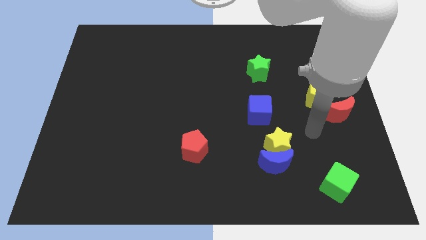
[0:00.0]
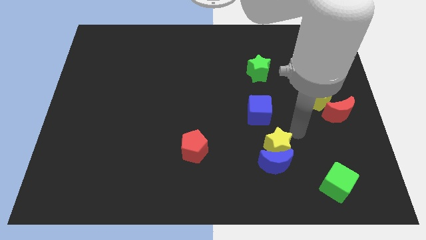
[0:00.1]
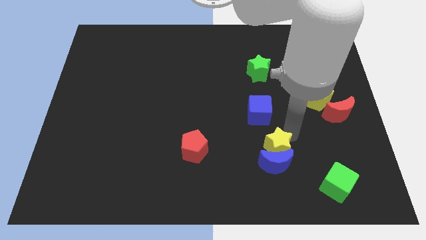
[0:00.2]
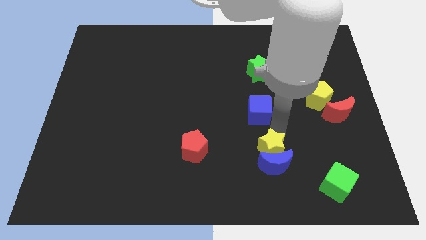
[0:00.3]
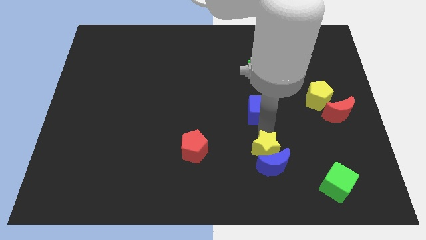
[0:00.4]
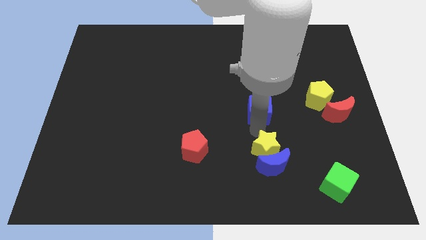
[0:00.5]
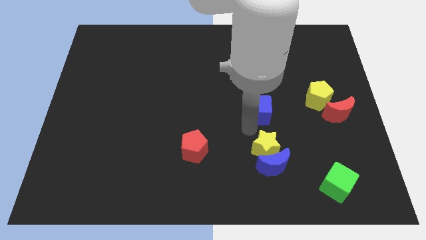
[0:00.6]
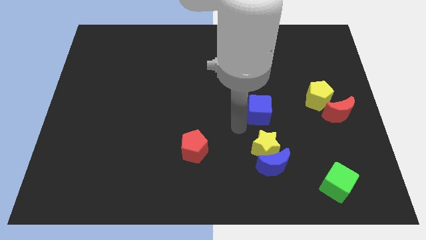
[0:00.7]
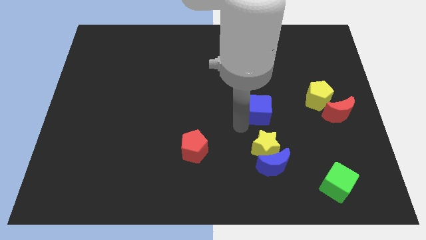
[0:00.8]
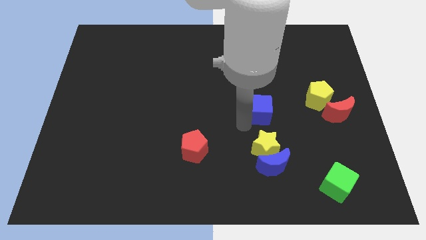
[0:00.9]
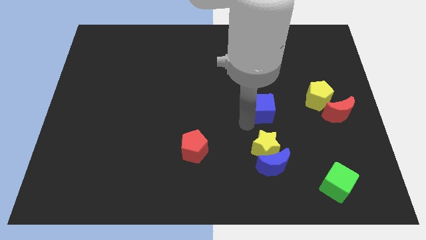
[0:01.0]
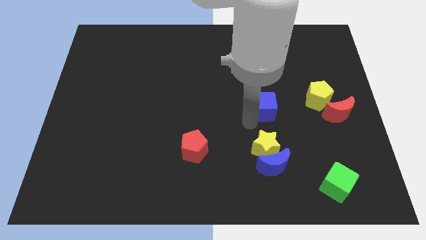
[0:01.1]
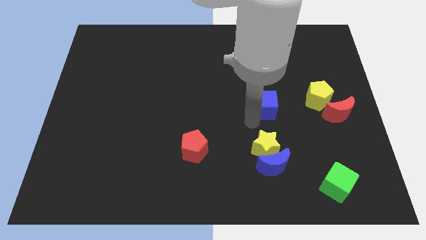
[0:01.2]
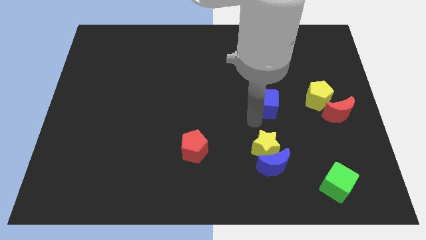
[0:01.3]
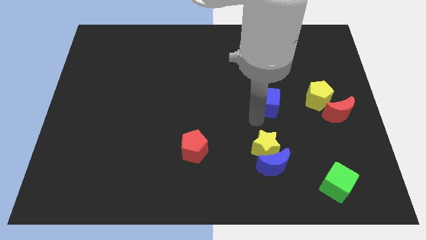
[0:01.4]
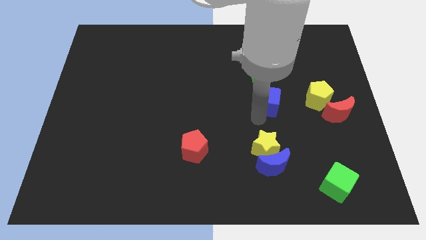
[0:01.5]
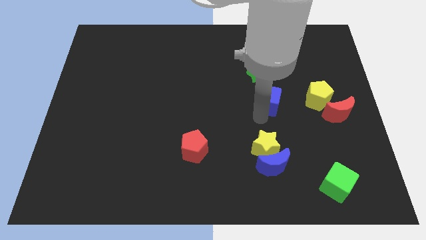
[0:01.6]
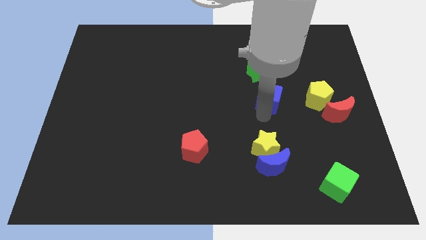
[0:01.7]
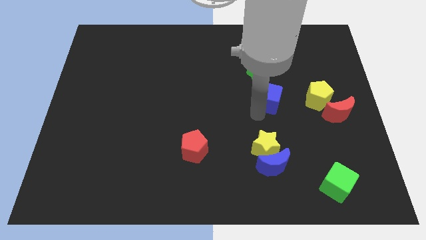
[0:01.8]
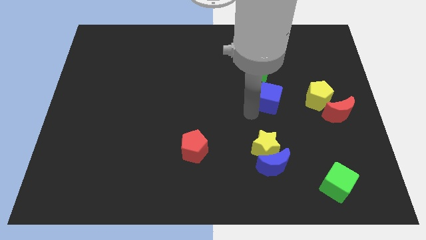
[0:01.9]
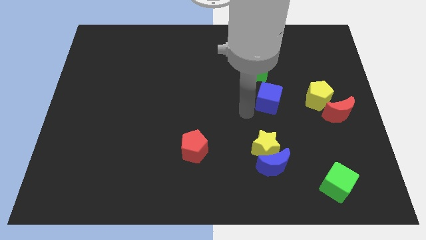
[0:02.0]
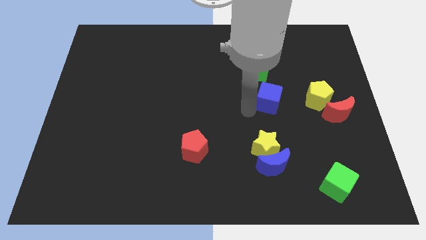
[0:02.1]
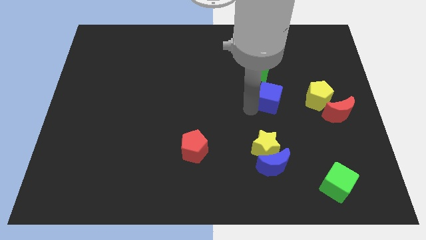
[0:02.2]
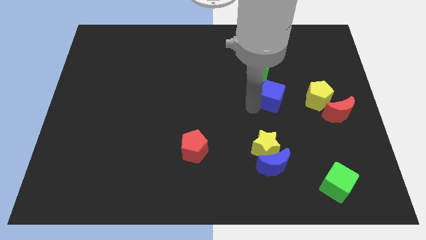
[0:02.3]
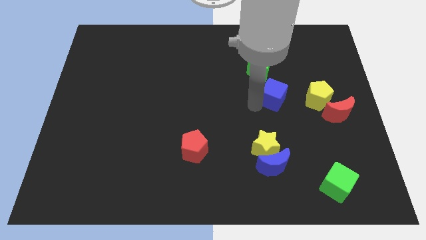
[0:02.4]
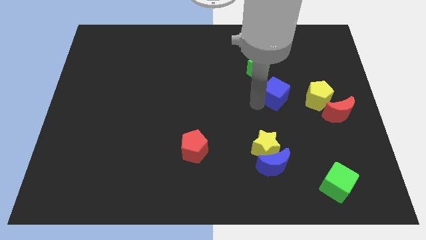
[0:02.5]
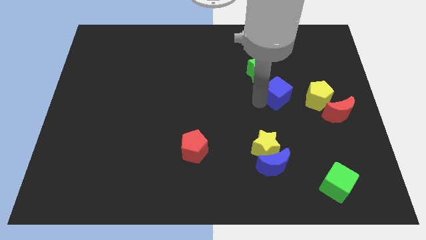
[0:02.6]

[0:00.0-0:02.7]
push the blue cube upwards and right diagonally a little

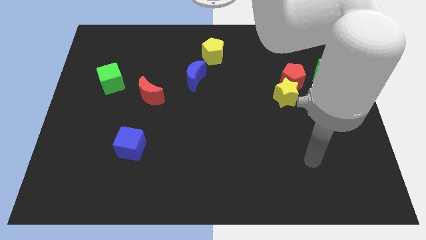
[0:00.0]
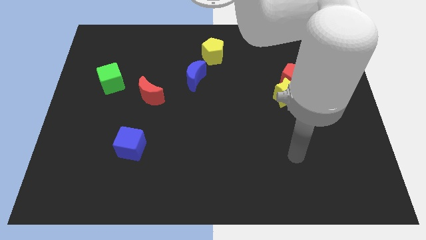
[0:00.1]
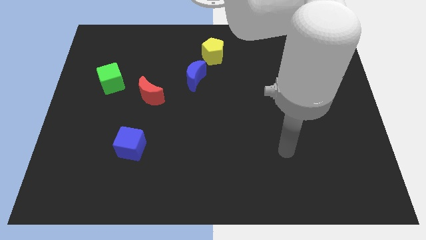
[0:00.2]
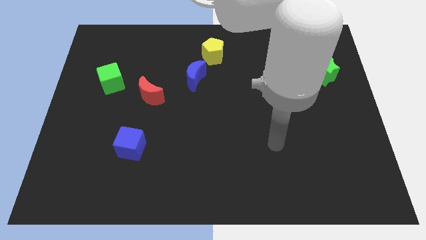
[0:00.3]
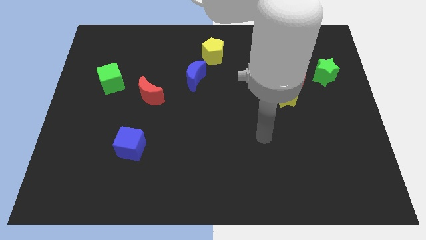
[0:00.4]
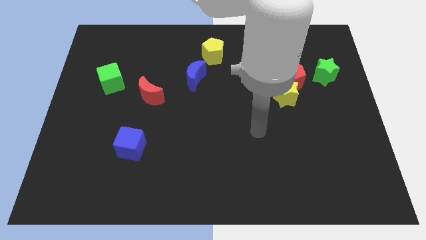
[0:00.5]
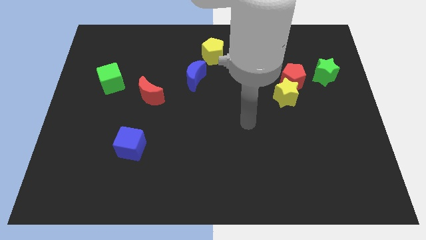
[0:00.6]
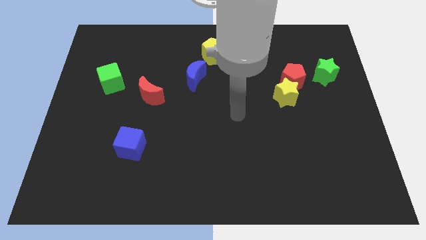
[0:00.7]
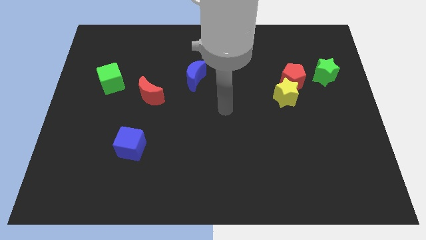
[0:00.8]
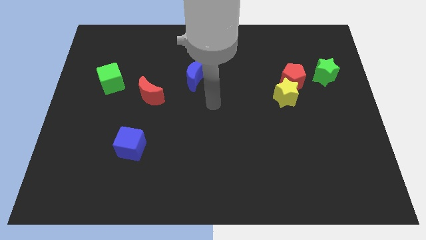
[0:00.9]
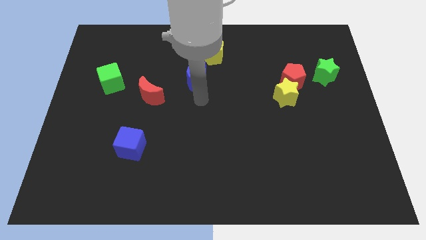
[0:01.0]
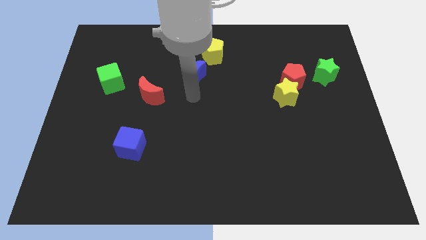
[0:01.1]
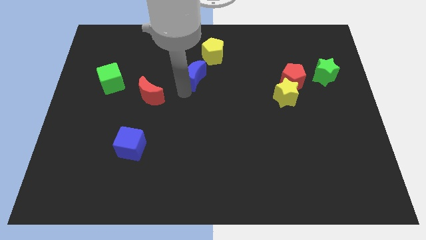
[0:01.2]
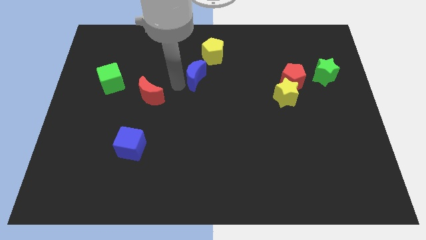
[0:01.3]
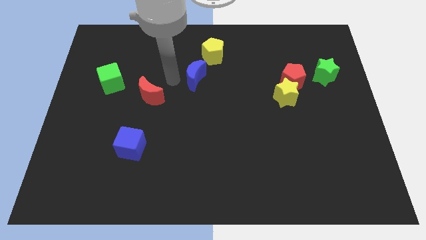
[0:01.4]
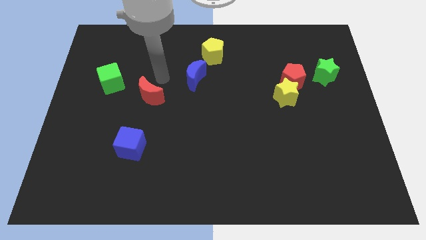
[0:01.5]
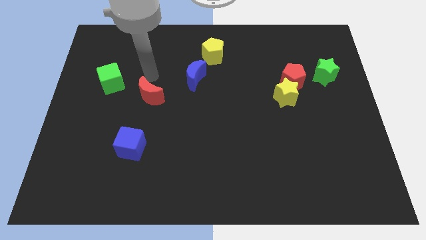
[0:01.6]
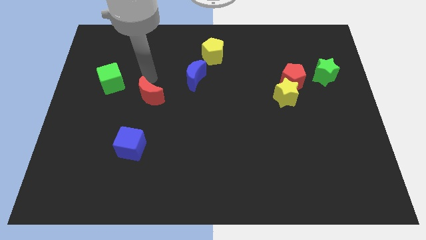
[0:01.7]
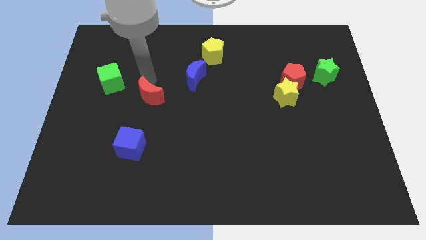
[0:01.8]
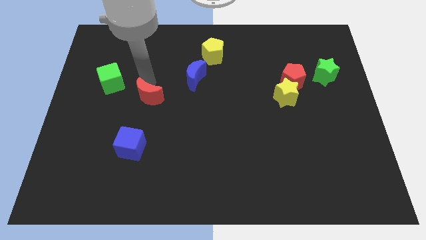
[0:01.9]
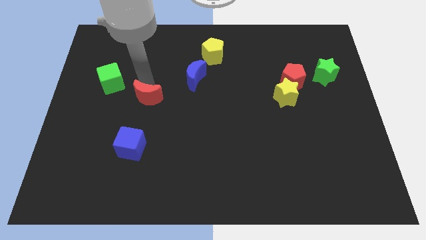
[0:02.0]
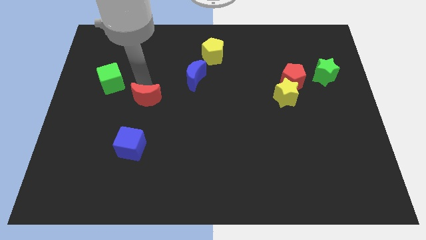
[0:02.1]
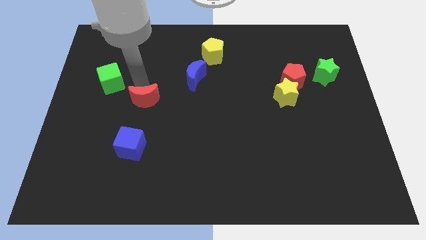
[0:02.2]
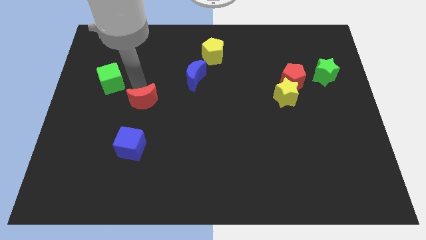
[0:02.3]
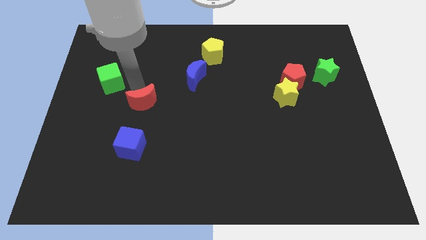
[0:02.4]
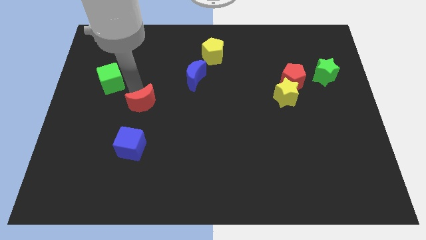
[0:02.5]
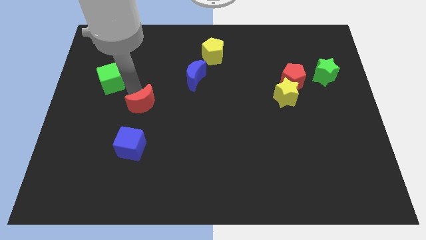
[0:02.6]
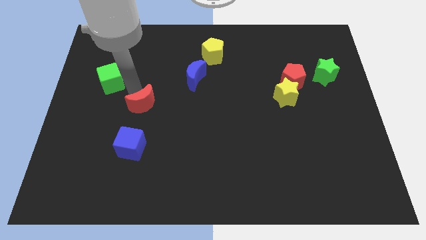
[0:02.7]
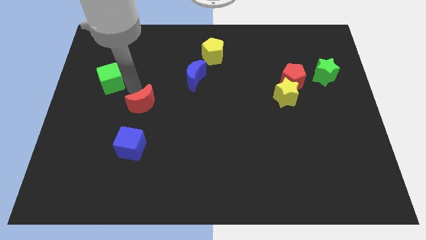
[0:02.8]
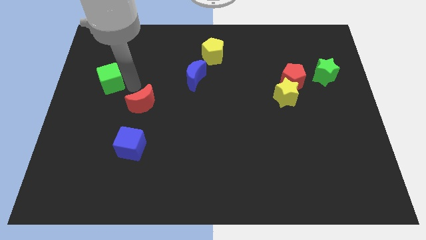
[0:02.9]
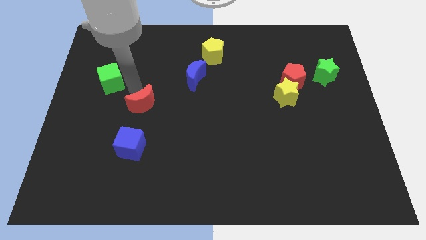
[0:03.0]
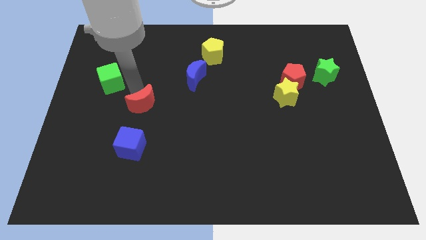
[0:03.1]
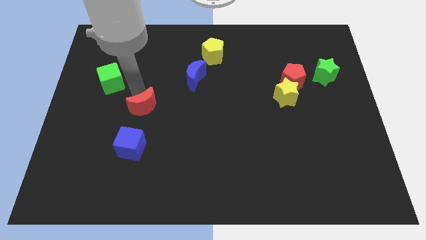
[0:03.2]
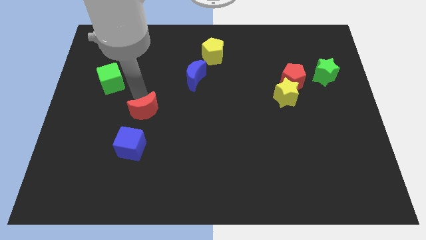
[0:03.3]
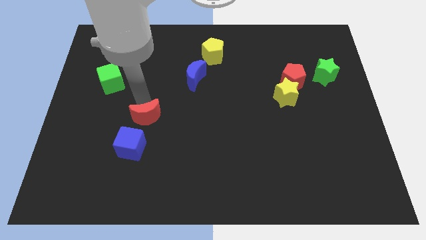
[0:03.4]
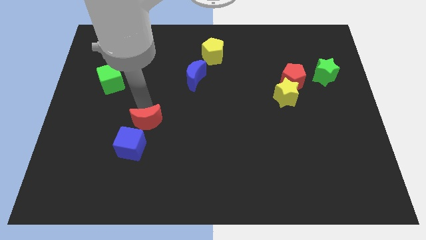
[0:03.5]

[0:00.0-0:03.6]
slide the red moon a bit down

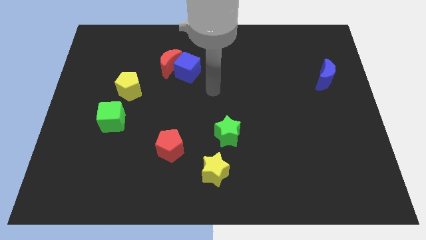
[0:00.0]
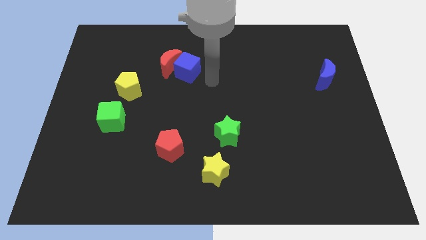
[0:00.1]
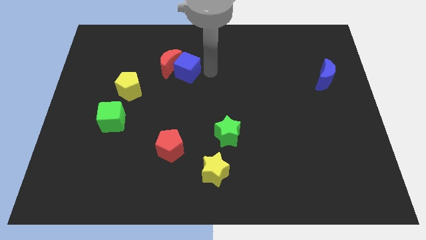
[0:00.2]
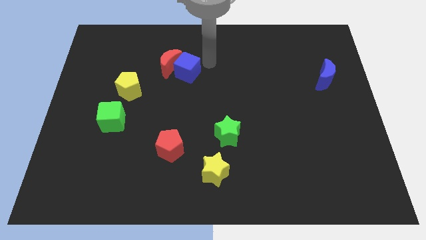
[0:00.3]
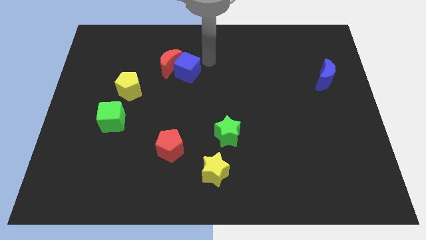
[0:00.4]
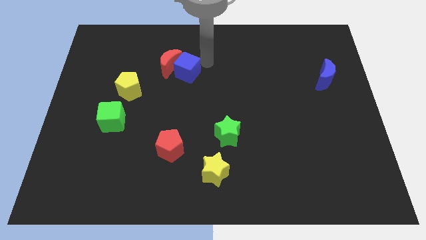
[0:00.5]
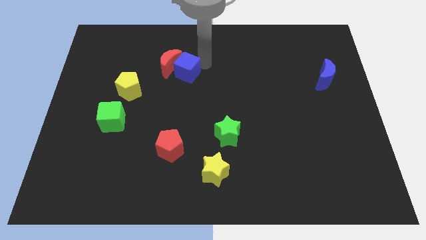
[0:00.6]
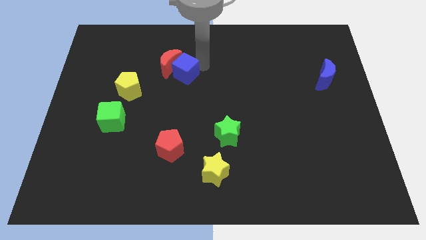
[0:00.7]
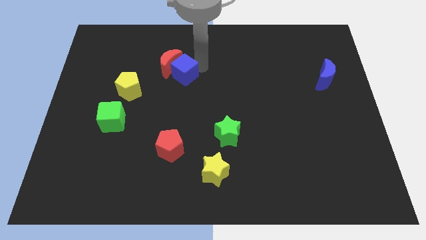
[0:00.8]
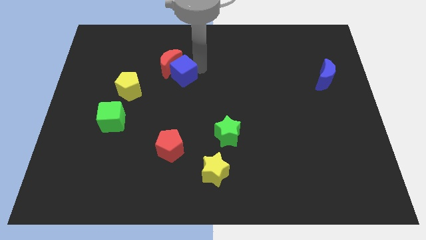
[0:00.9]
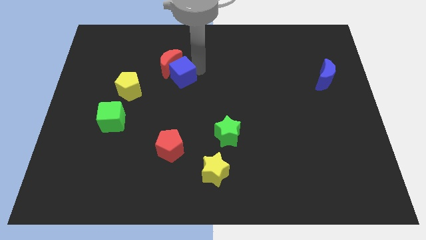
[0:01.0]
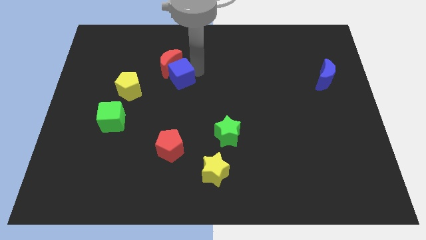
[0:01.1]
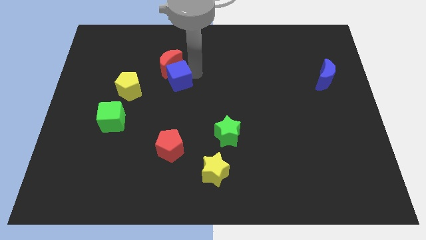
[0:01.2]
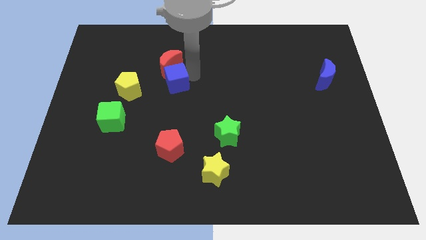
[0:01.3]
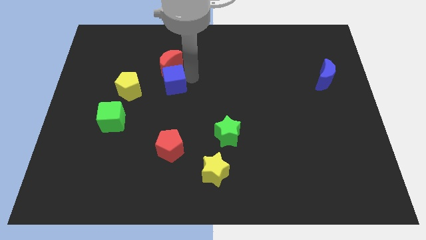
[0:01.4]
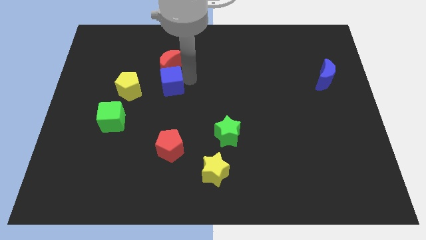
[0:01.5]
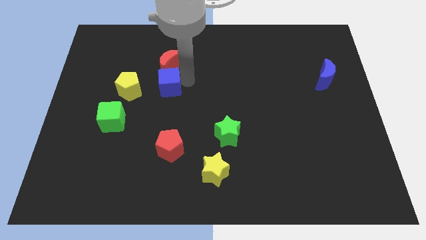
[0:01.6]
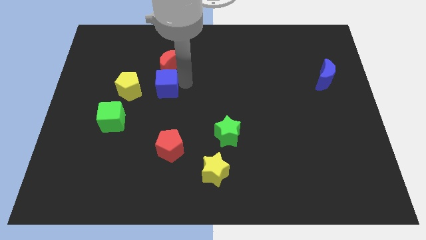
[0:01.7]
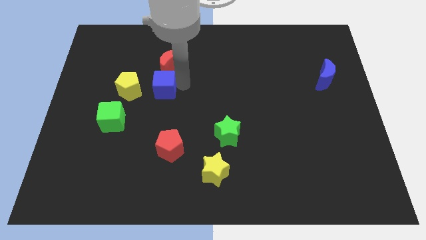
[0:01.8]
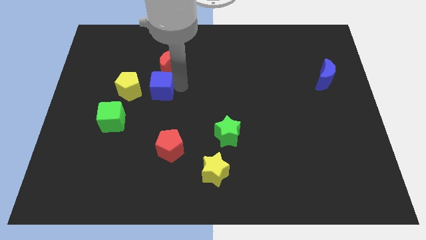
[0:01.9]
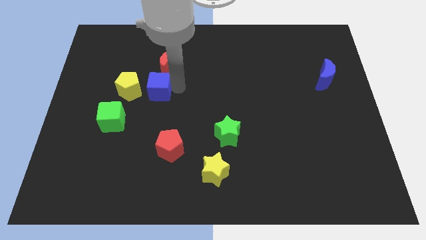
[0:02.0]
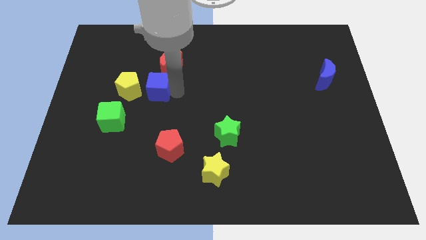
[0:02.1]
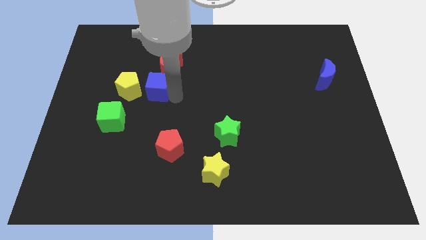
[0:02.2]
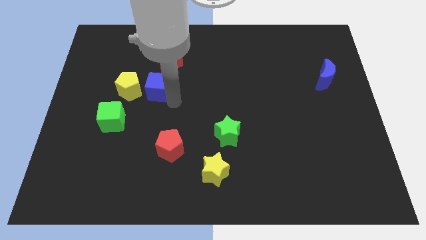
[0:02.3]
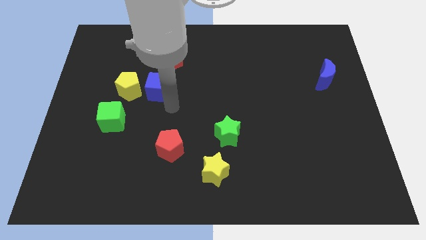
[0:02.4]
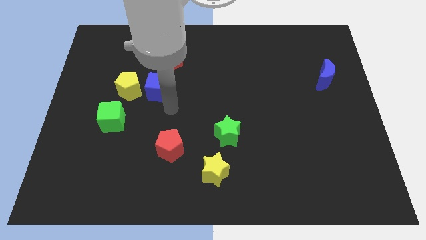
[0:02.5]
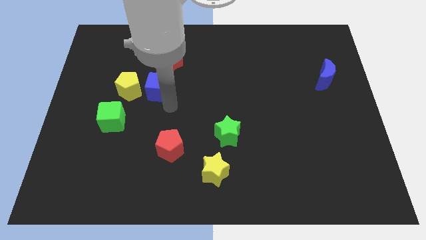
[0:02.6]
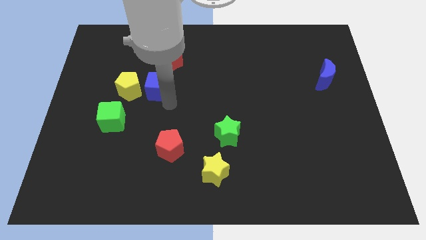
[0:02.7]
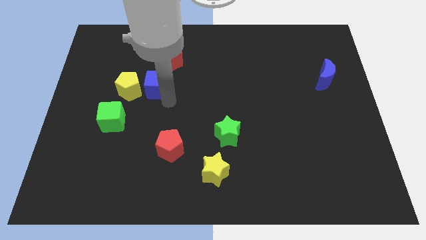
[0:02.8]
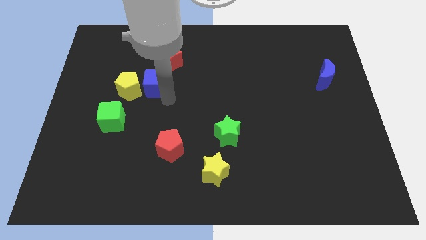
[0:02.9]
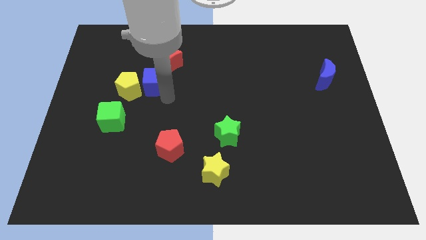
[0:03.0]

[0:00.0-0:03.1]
slightly move the blue cube left
